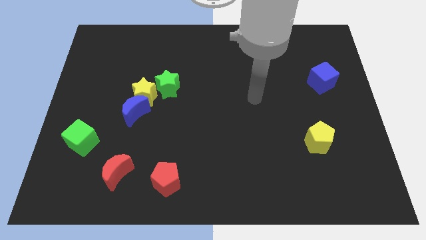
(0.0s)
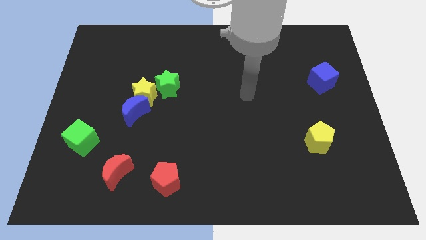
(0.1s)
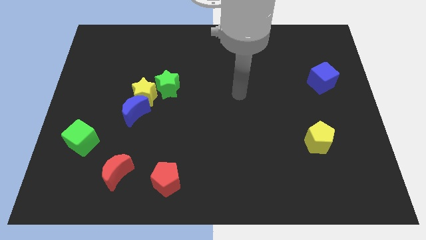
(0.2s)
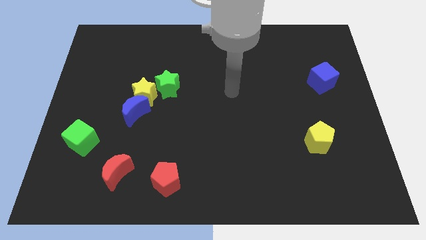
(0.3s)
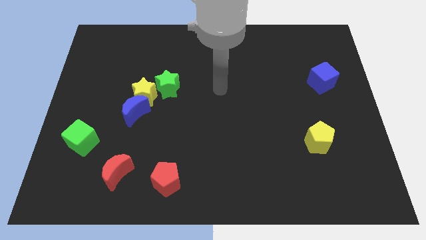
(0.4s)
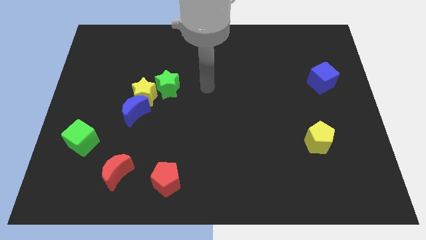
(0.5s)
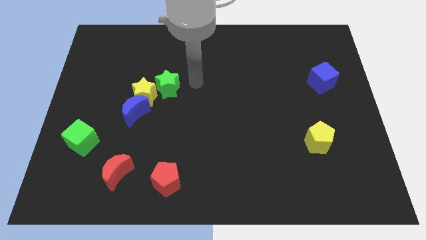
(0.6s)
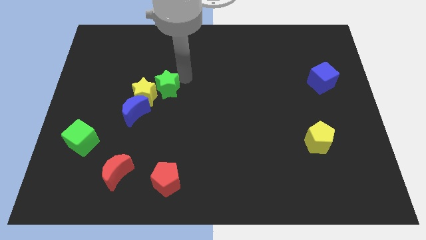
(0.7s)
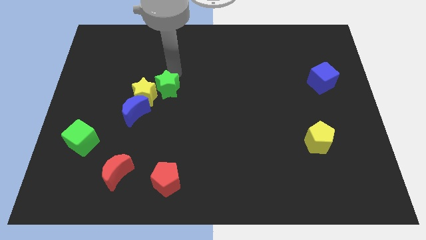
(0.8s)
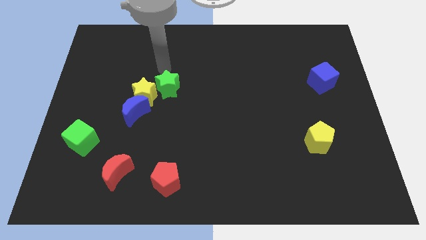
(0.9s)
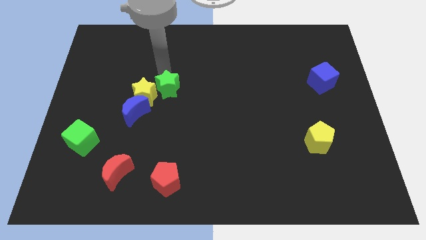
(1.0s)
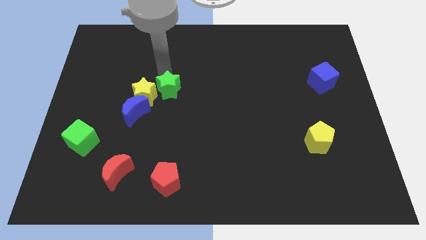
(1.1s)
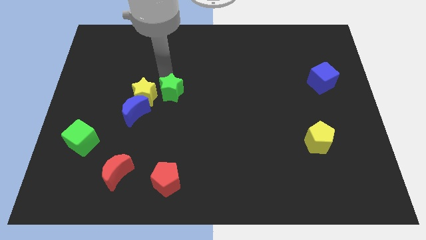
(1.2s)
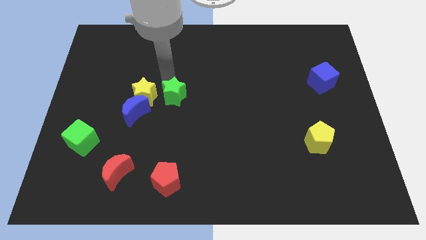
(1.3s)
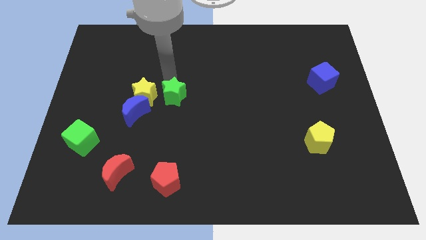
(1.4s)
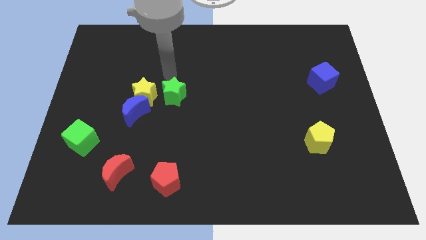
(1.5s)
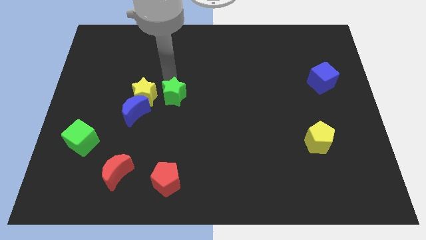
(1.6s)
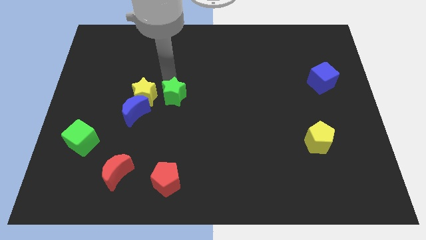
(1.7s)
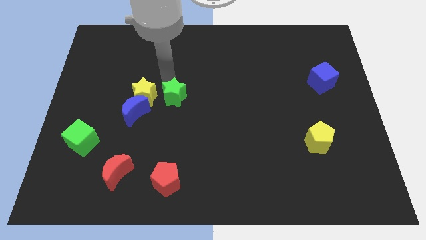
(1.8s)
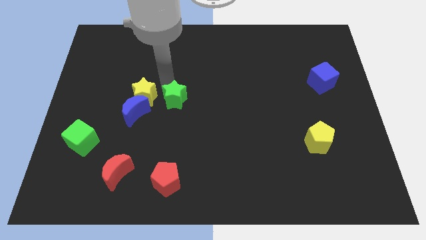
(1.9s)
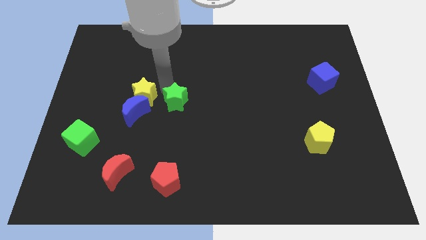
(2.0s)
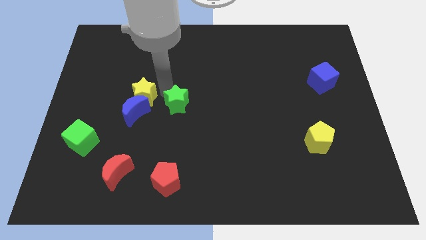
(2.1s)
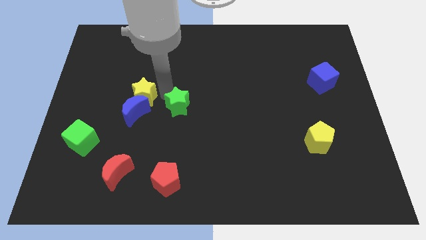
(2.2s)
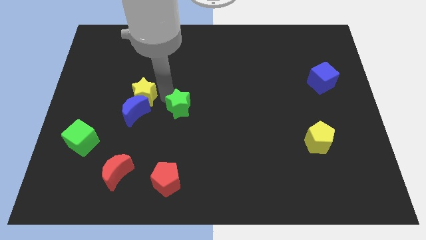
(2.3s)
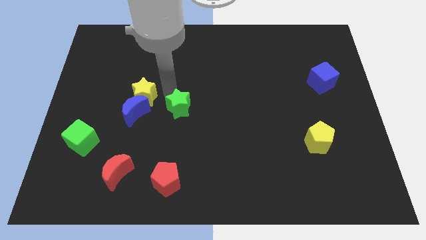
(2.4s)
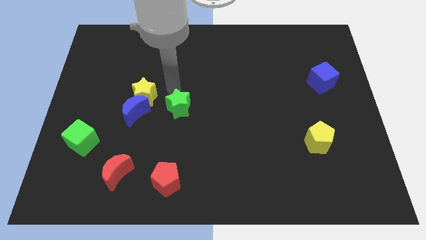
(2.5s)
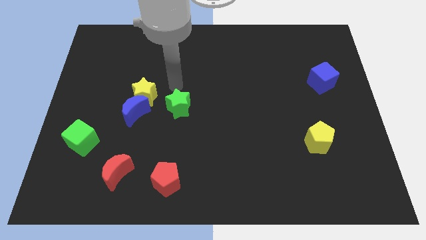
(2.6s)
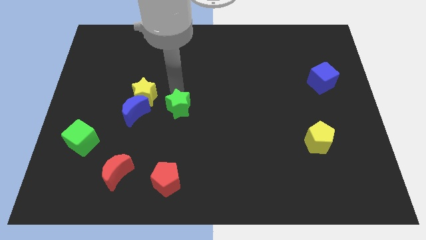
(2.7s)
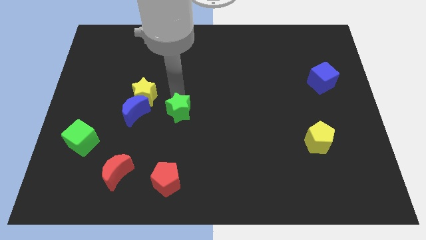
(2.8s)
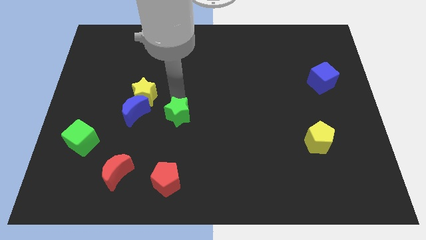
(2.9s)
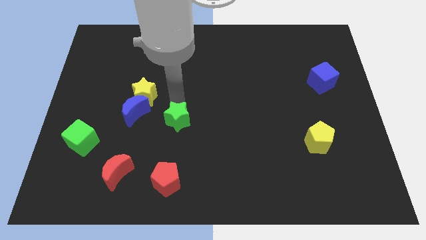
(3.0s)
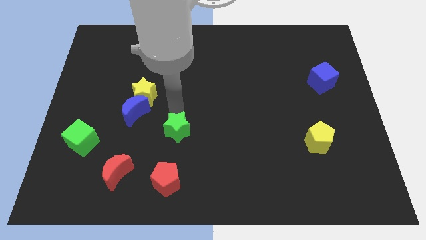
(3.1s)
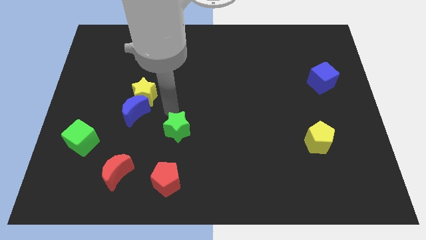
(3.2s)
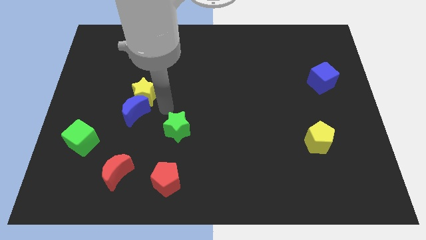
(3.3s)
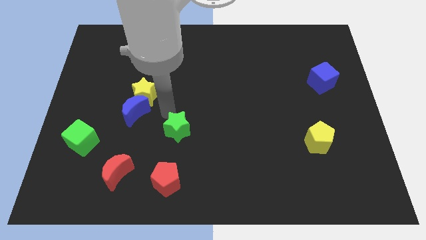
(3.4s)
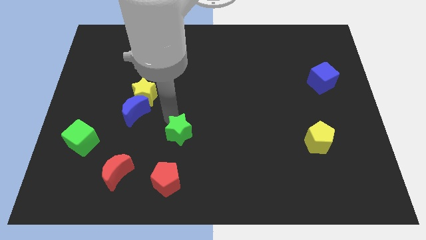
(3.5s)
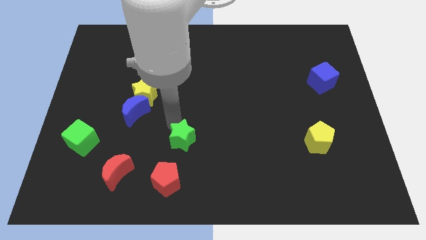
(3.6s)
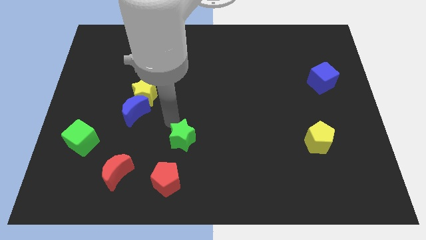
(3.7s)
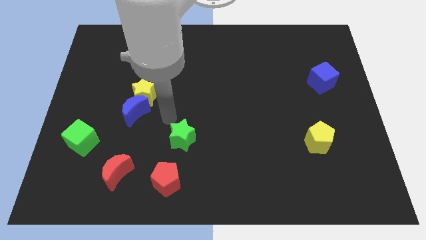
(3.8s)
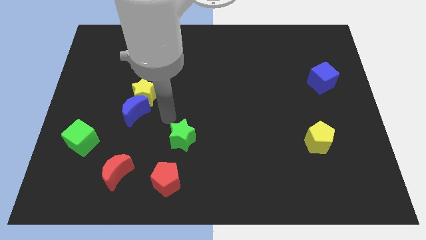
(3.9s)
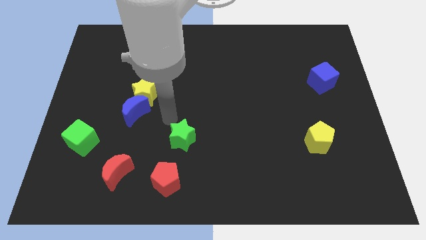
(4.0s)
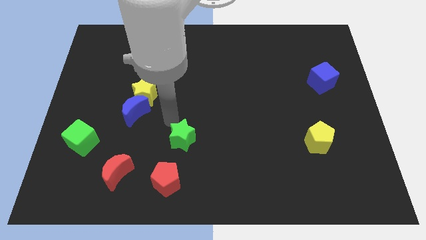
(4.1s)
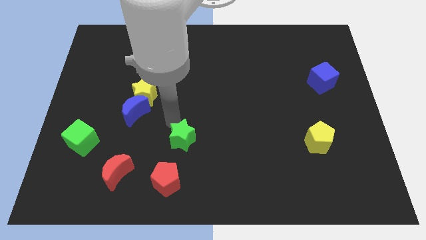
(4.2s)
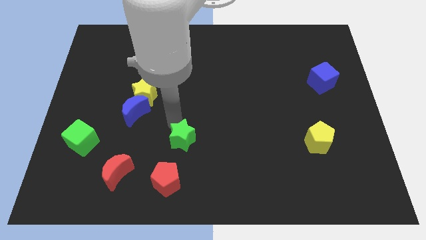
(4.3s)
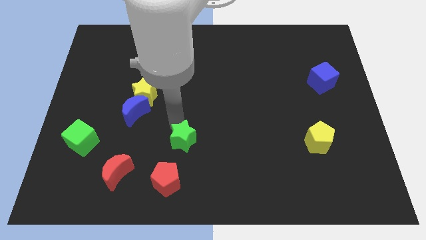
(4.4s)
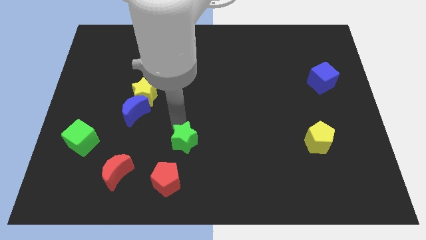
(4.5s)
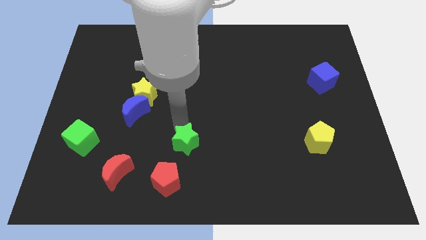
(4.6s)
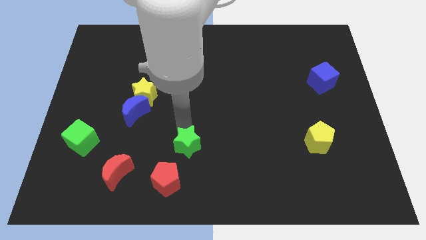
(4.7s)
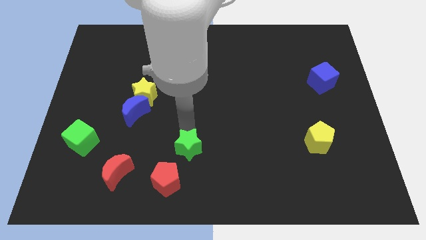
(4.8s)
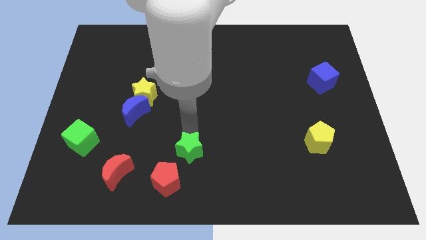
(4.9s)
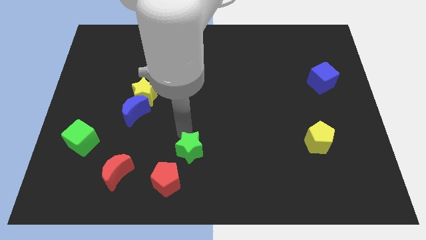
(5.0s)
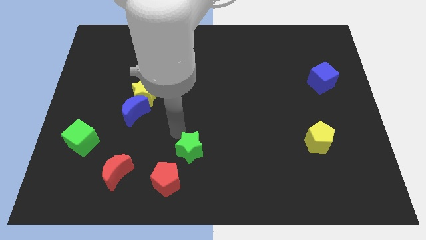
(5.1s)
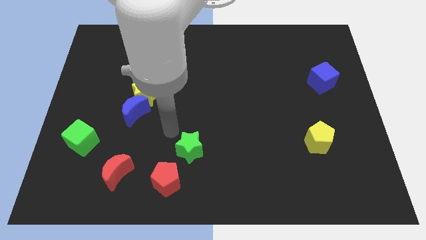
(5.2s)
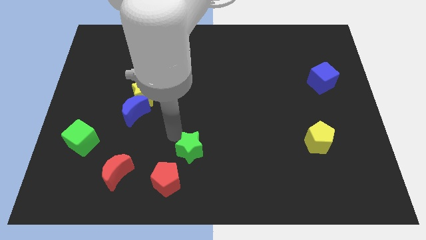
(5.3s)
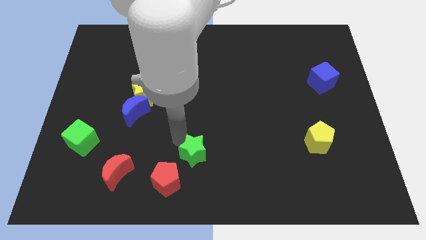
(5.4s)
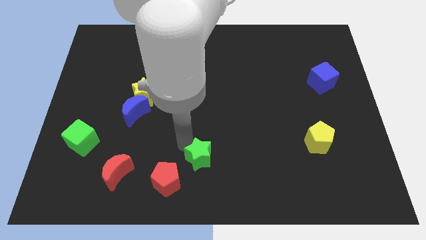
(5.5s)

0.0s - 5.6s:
slide the green star to the bottom

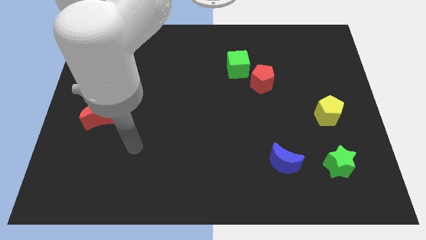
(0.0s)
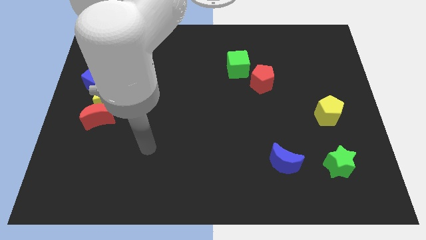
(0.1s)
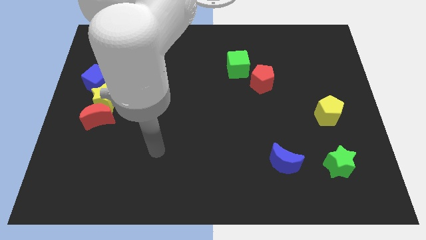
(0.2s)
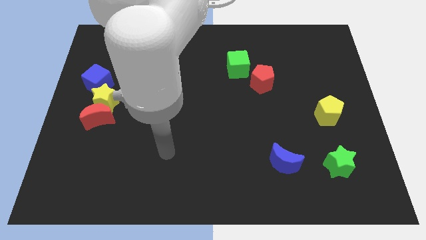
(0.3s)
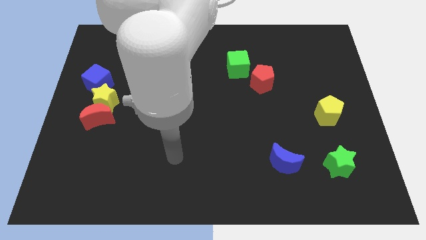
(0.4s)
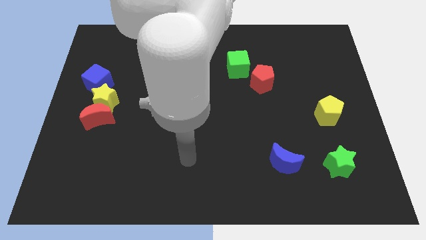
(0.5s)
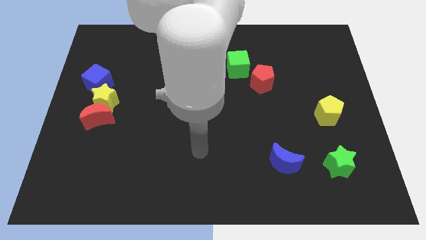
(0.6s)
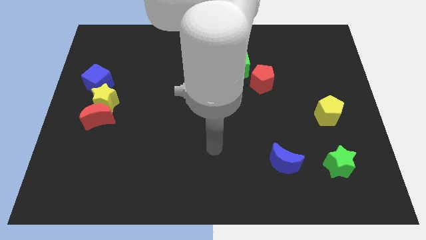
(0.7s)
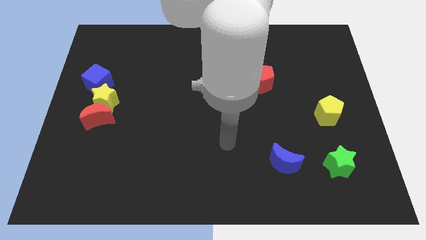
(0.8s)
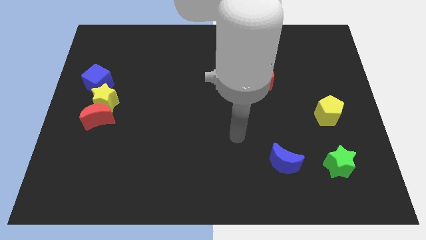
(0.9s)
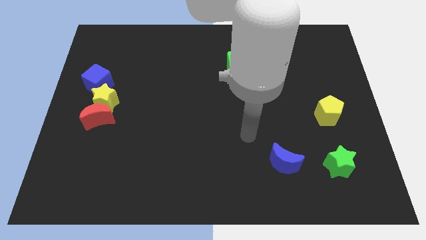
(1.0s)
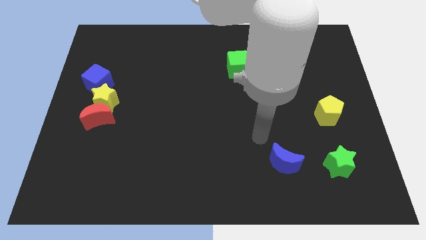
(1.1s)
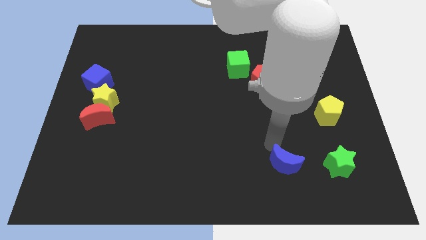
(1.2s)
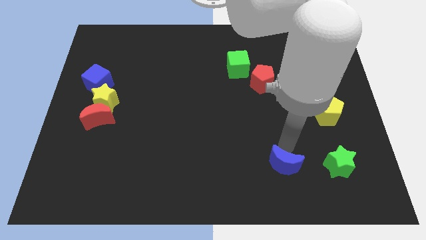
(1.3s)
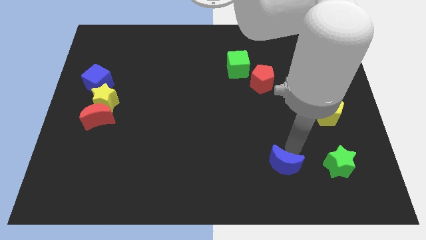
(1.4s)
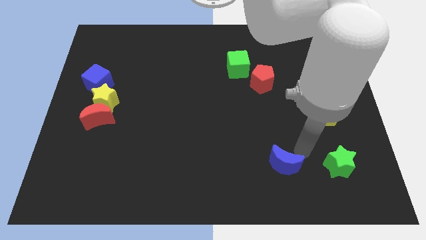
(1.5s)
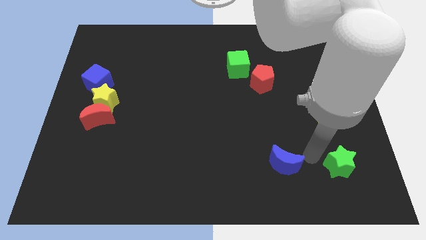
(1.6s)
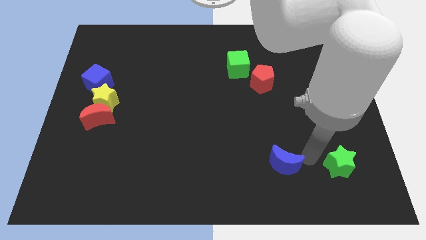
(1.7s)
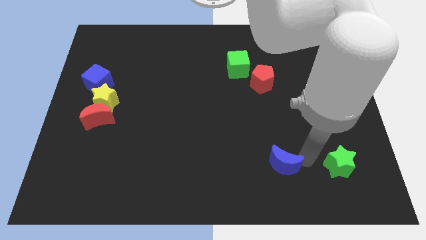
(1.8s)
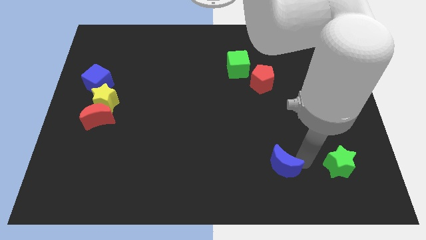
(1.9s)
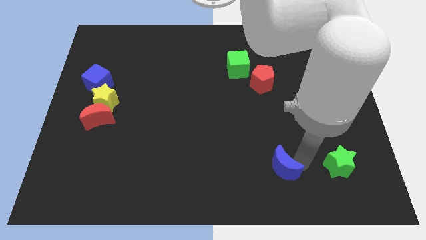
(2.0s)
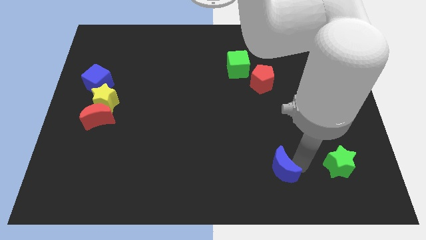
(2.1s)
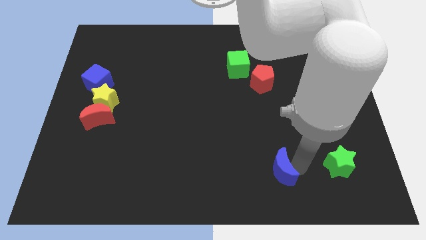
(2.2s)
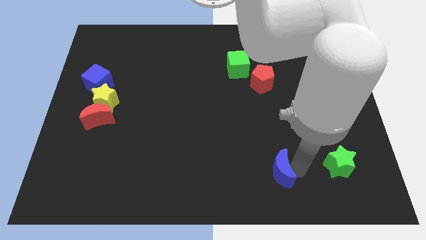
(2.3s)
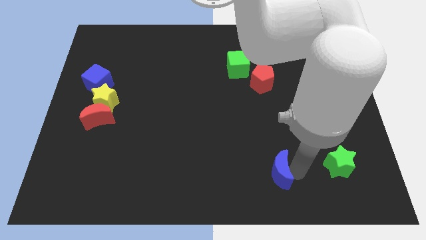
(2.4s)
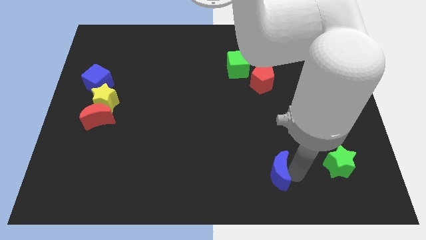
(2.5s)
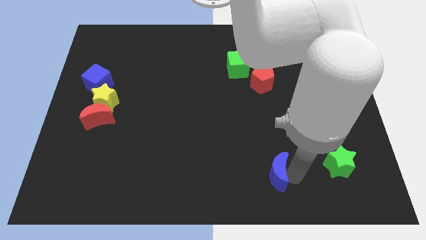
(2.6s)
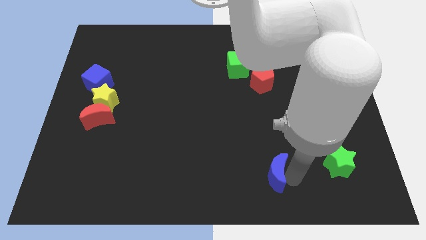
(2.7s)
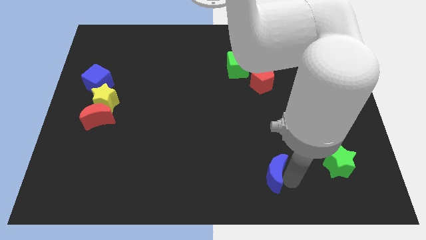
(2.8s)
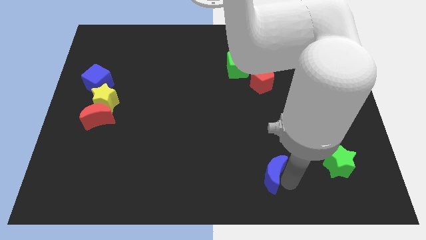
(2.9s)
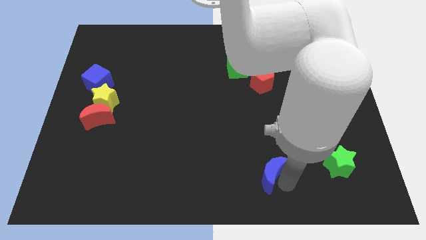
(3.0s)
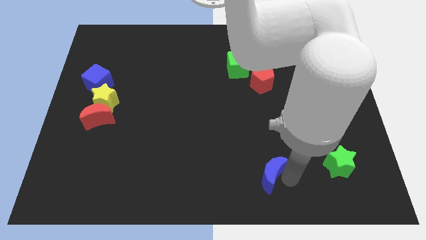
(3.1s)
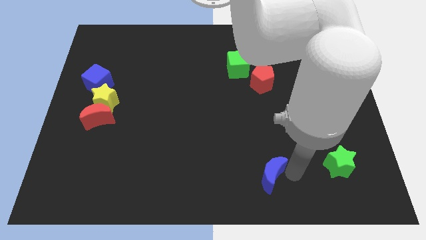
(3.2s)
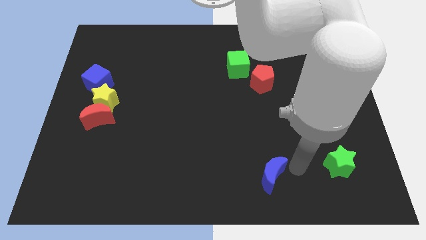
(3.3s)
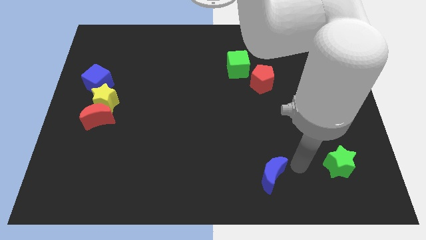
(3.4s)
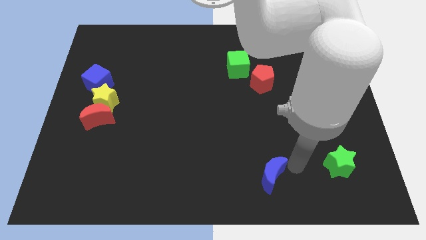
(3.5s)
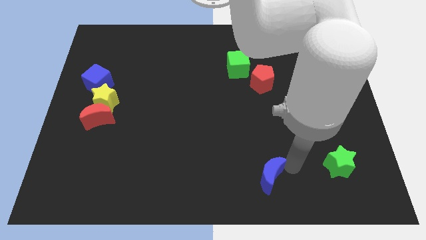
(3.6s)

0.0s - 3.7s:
move the blue moon to the bottom
